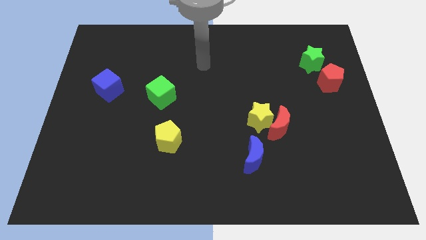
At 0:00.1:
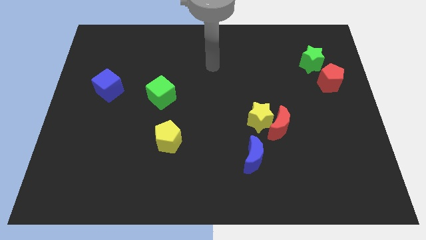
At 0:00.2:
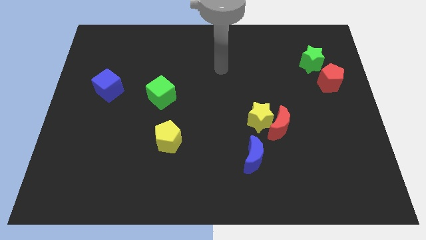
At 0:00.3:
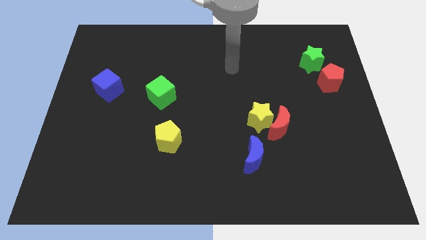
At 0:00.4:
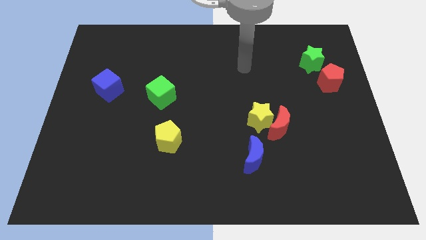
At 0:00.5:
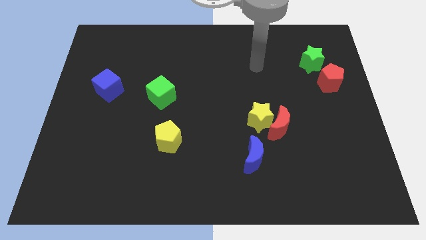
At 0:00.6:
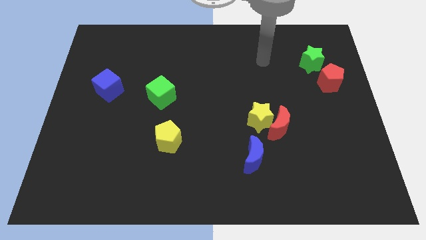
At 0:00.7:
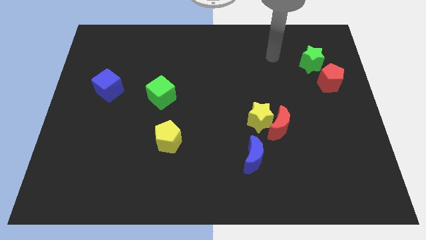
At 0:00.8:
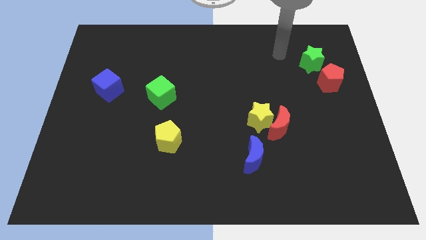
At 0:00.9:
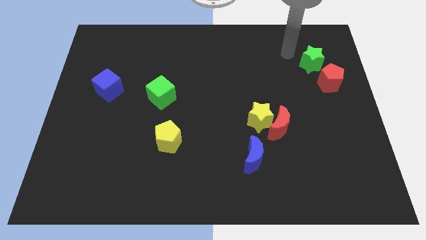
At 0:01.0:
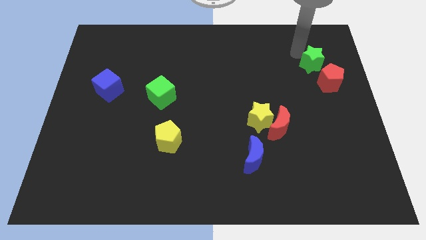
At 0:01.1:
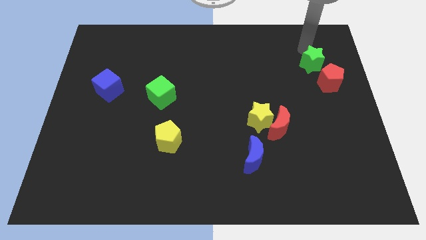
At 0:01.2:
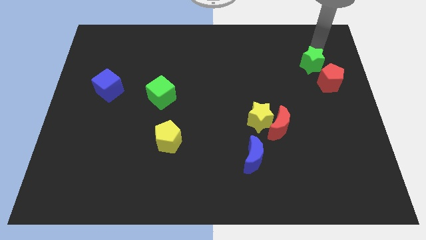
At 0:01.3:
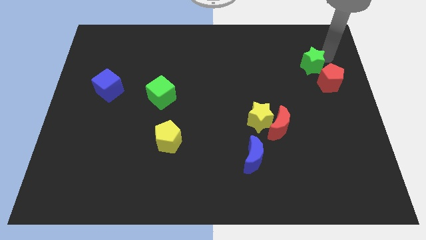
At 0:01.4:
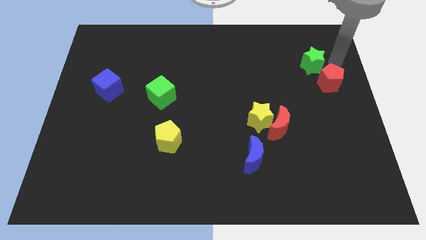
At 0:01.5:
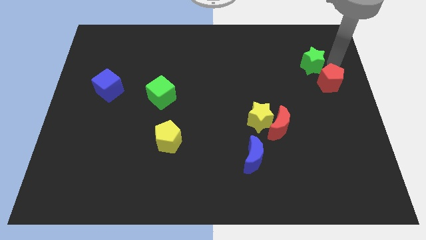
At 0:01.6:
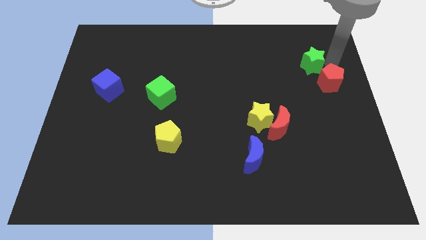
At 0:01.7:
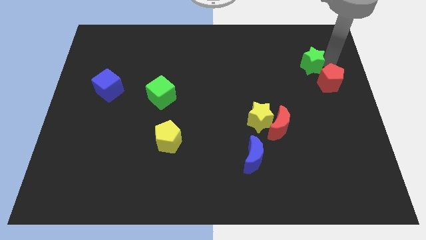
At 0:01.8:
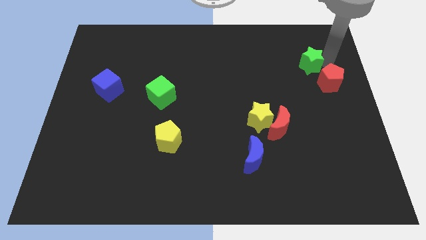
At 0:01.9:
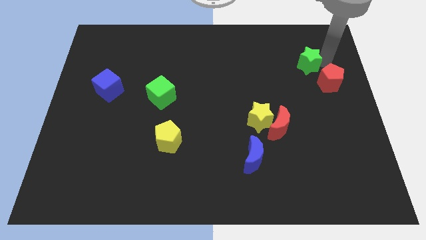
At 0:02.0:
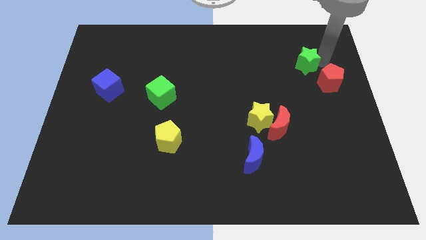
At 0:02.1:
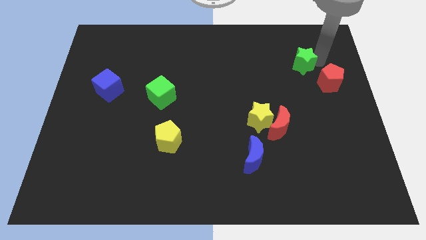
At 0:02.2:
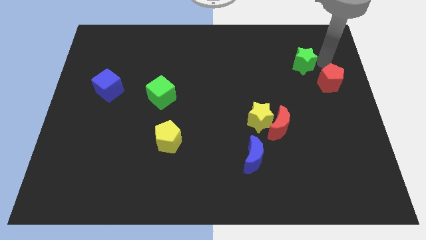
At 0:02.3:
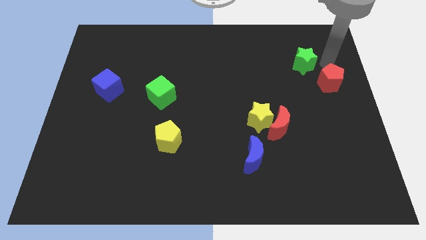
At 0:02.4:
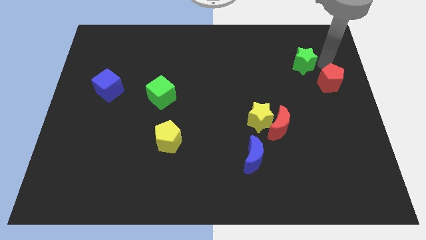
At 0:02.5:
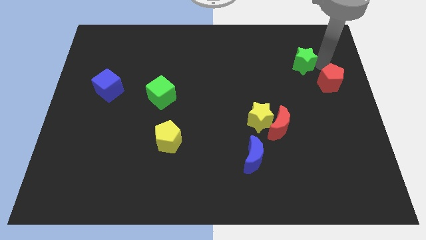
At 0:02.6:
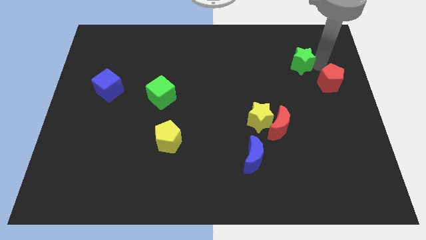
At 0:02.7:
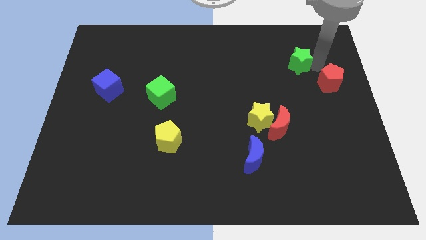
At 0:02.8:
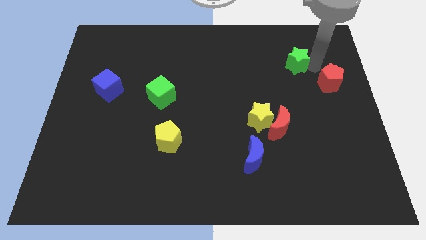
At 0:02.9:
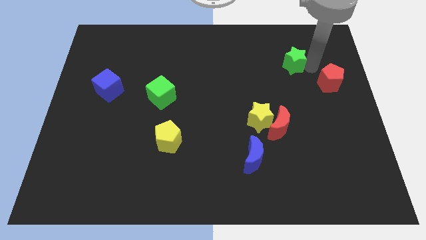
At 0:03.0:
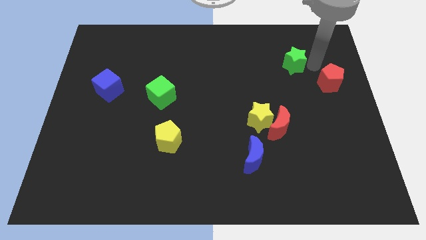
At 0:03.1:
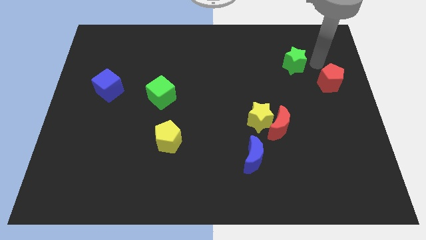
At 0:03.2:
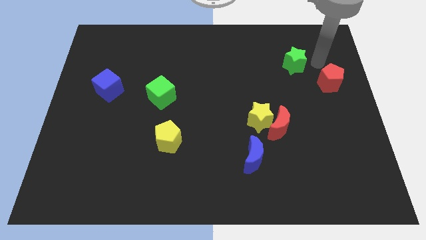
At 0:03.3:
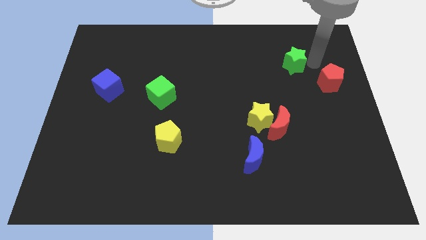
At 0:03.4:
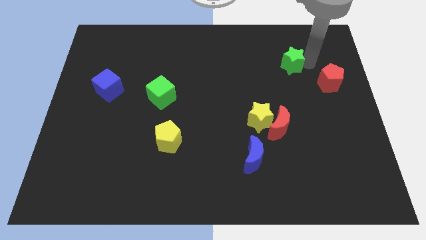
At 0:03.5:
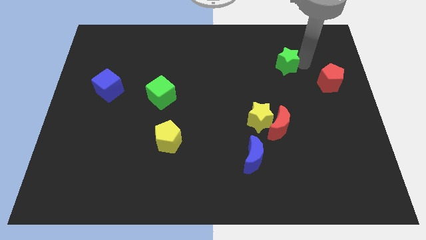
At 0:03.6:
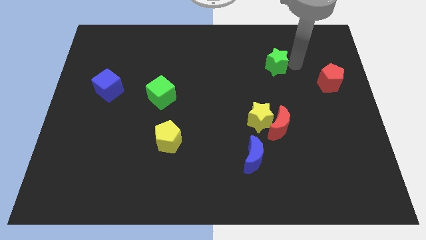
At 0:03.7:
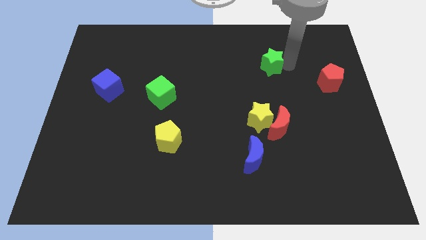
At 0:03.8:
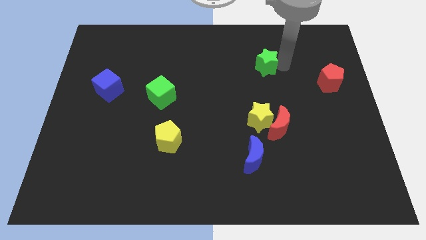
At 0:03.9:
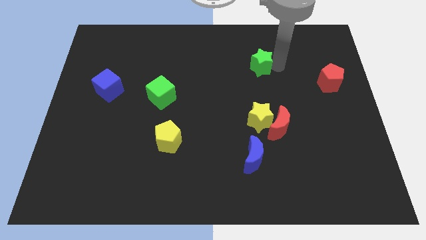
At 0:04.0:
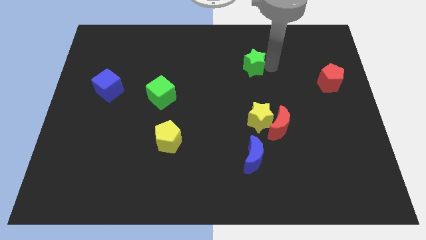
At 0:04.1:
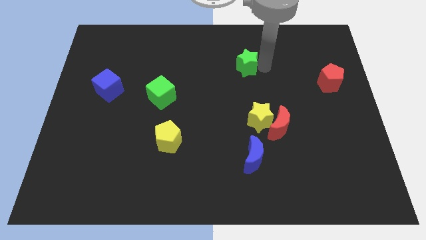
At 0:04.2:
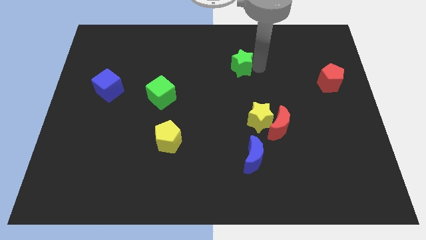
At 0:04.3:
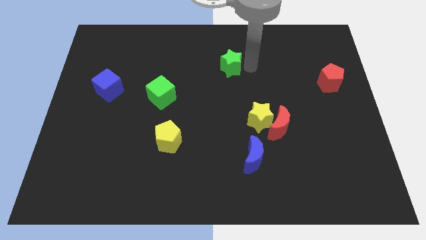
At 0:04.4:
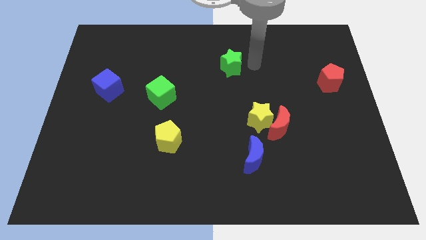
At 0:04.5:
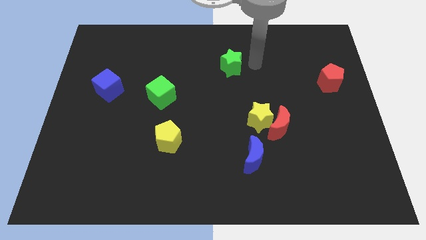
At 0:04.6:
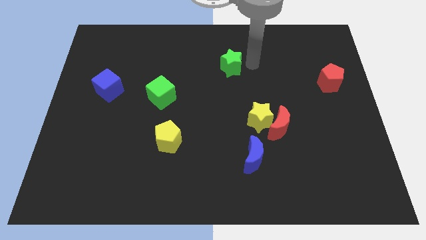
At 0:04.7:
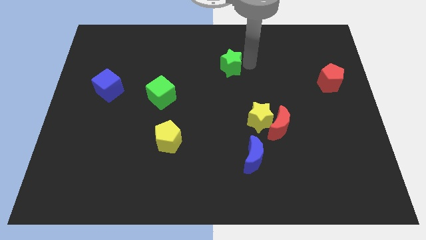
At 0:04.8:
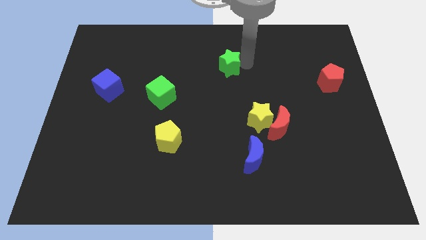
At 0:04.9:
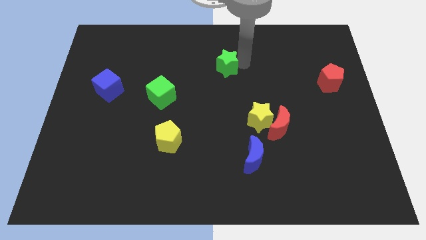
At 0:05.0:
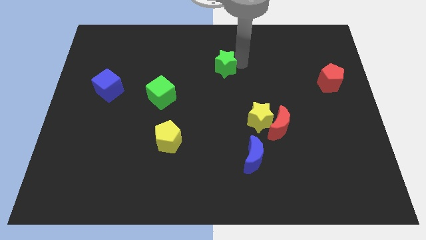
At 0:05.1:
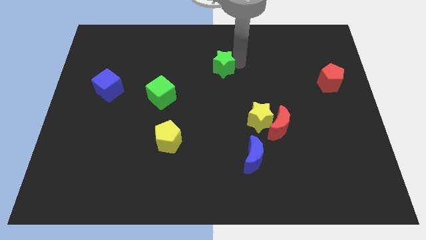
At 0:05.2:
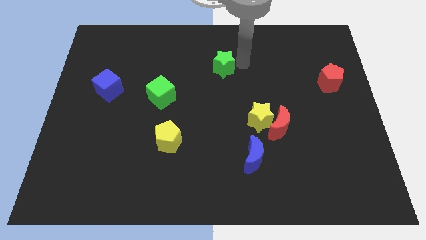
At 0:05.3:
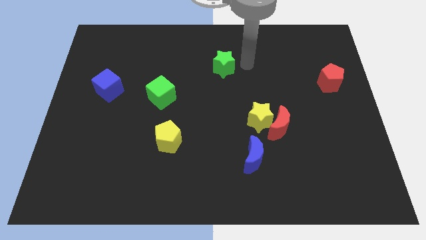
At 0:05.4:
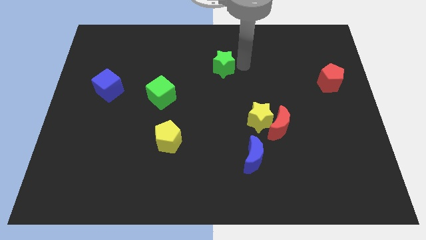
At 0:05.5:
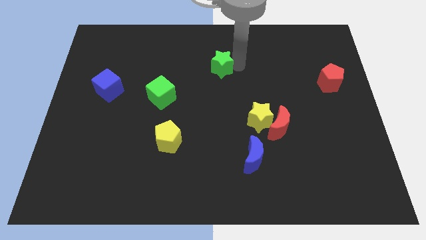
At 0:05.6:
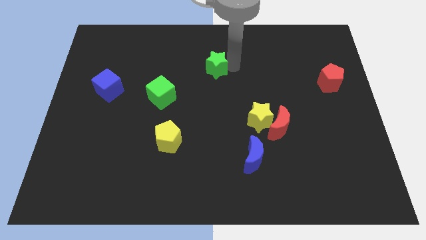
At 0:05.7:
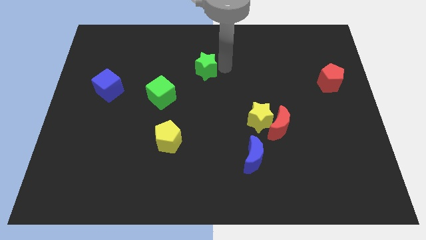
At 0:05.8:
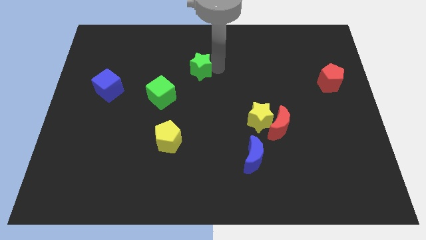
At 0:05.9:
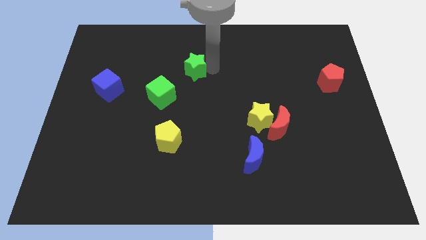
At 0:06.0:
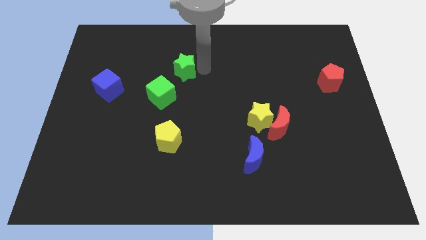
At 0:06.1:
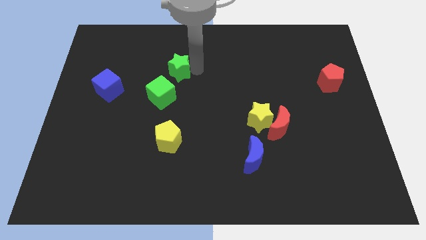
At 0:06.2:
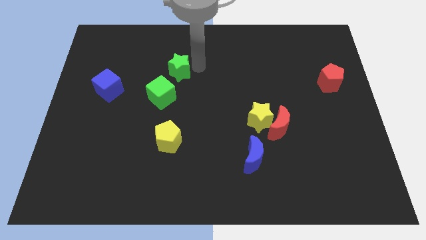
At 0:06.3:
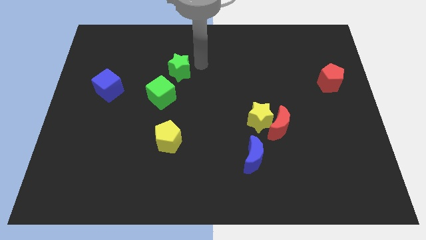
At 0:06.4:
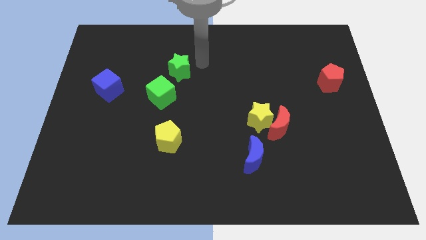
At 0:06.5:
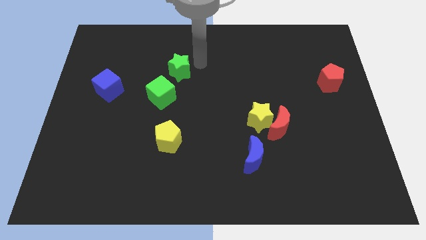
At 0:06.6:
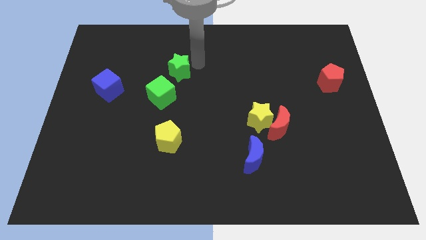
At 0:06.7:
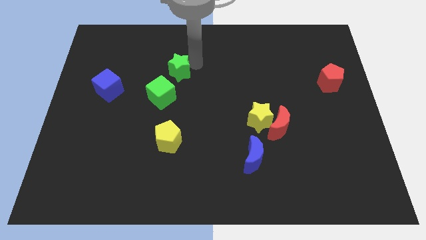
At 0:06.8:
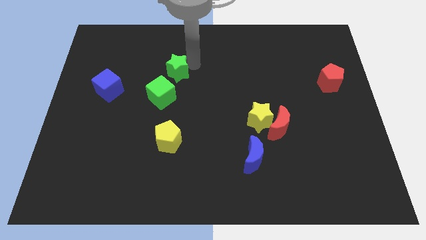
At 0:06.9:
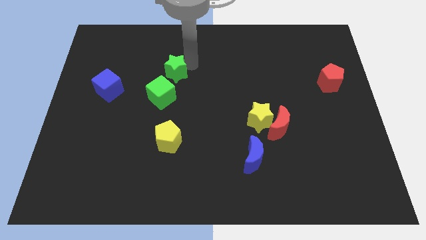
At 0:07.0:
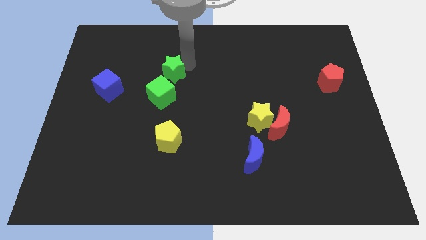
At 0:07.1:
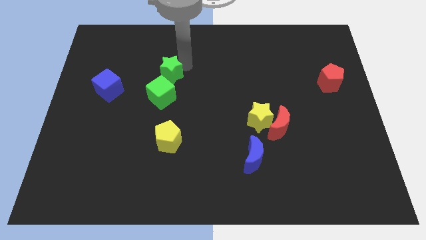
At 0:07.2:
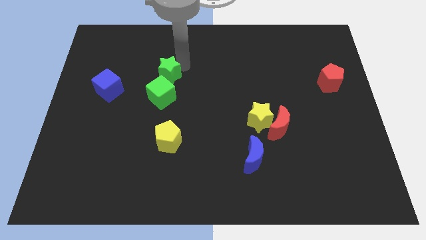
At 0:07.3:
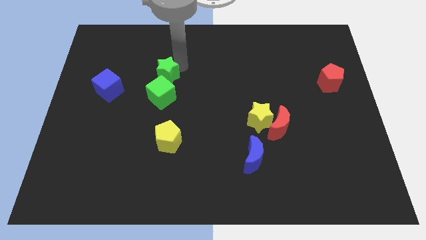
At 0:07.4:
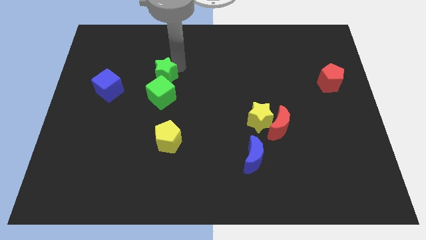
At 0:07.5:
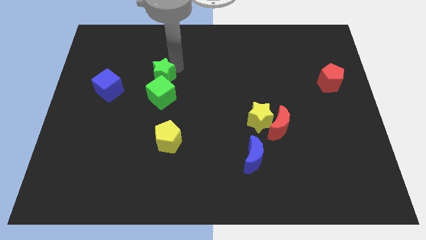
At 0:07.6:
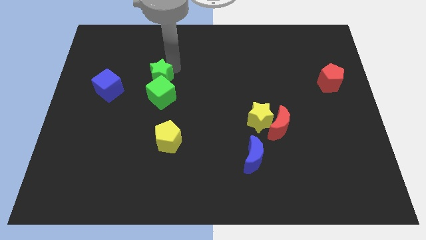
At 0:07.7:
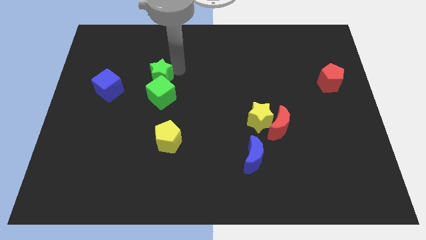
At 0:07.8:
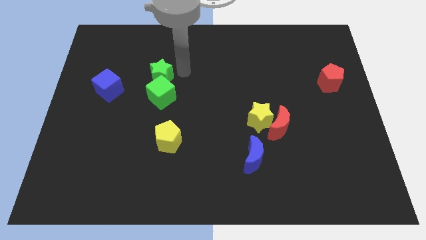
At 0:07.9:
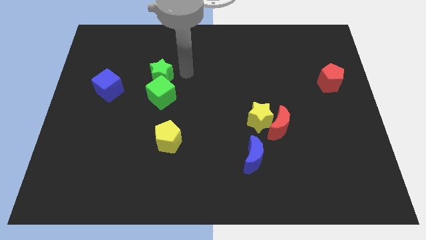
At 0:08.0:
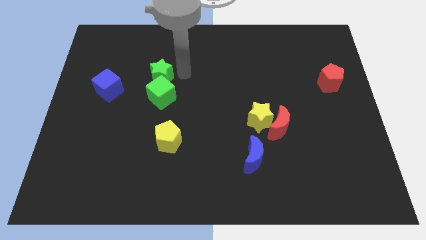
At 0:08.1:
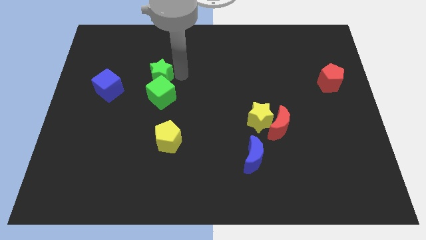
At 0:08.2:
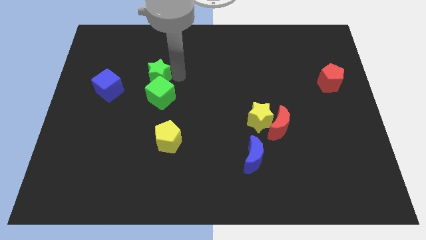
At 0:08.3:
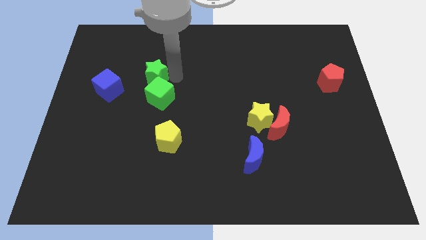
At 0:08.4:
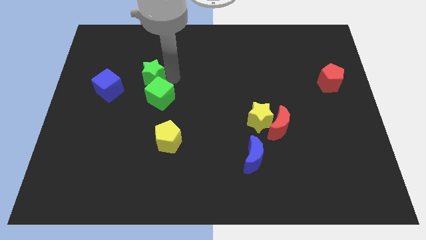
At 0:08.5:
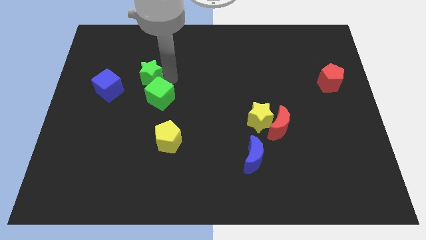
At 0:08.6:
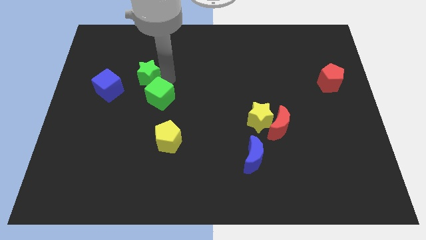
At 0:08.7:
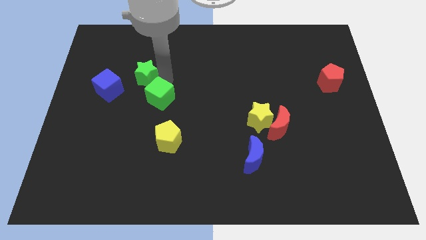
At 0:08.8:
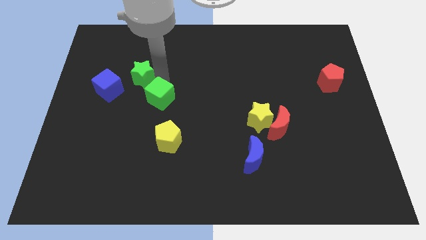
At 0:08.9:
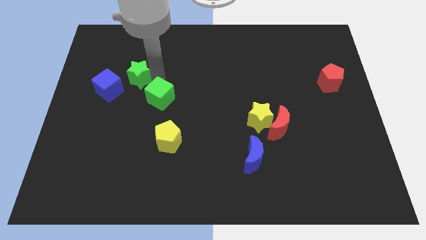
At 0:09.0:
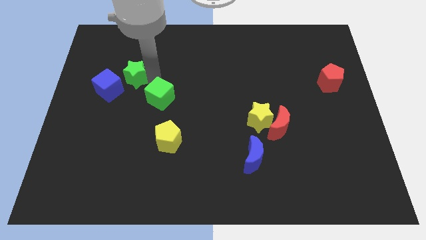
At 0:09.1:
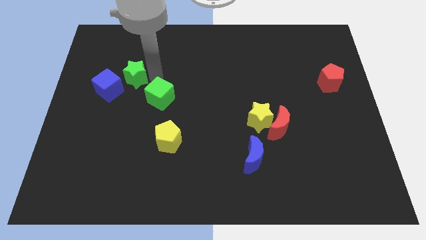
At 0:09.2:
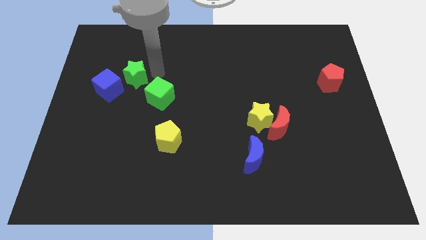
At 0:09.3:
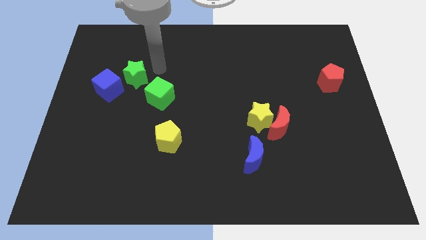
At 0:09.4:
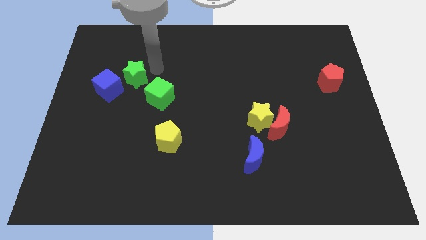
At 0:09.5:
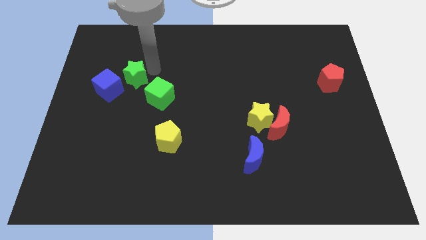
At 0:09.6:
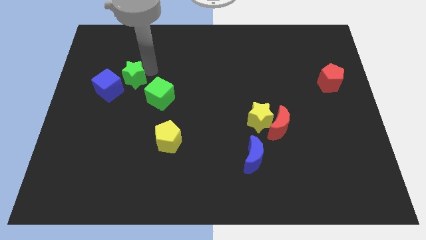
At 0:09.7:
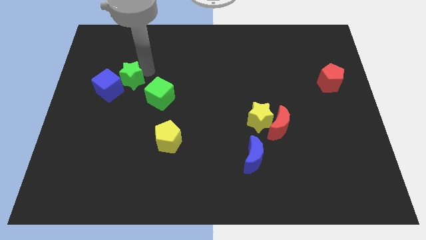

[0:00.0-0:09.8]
slide the green star to the blue cube
